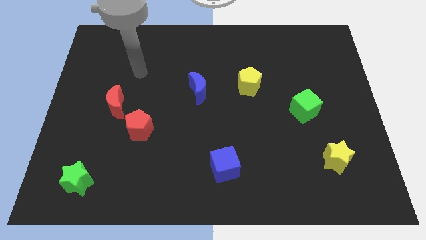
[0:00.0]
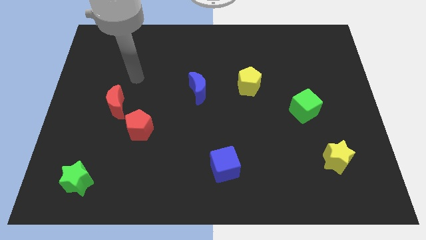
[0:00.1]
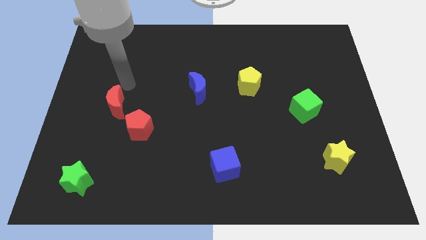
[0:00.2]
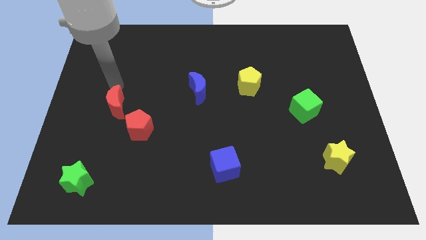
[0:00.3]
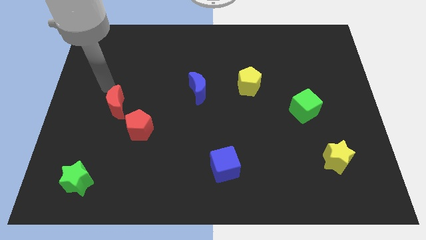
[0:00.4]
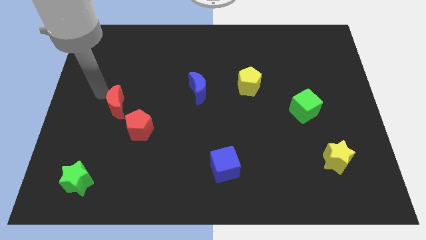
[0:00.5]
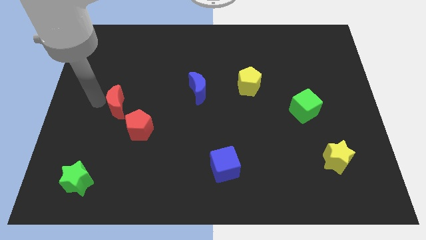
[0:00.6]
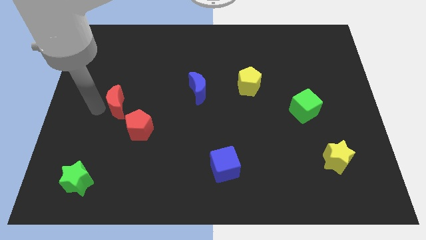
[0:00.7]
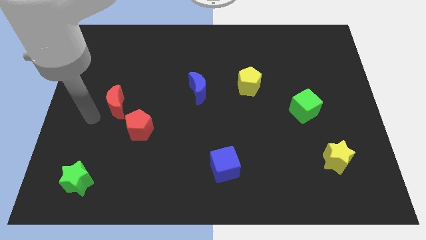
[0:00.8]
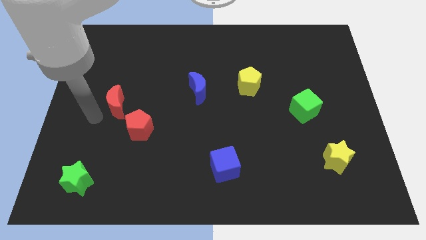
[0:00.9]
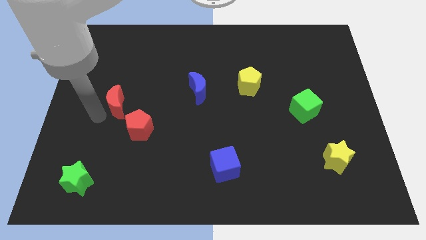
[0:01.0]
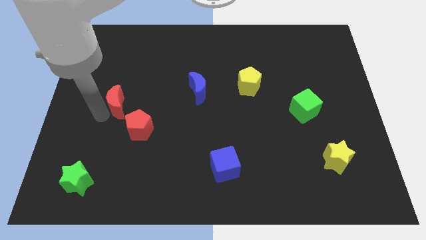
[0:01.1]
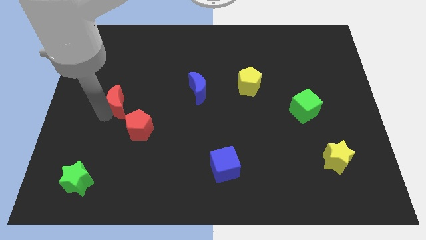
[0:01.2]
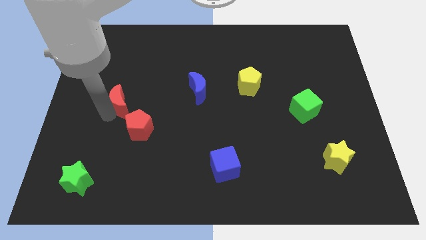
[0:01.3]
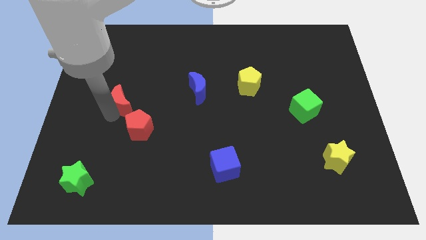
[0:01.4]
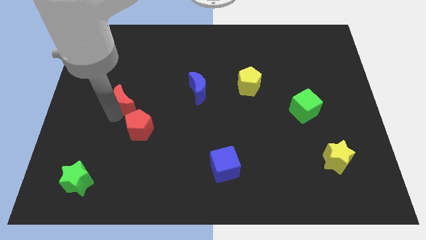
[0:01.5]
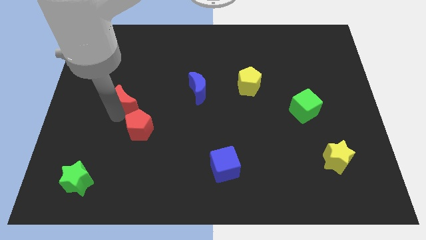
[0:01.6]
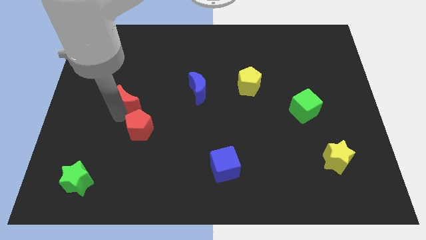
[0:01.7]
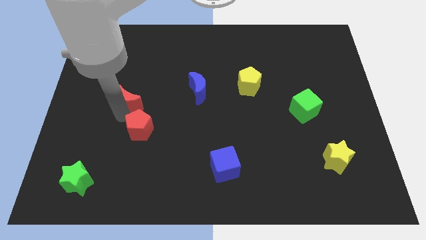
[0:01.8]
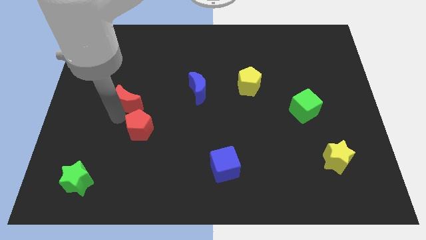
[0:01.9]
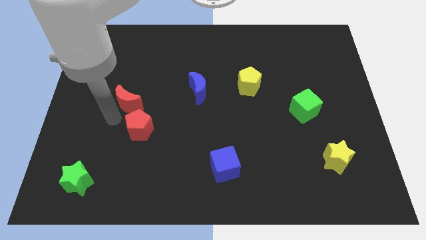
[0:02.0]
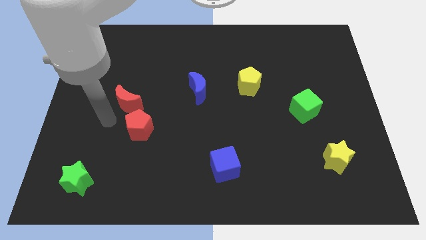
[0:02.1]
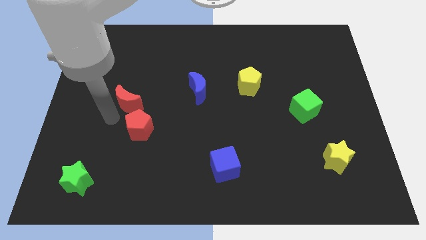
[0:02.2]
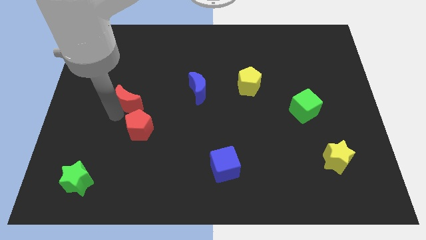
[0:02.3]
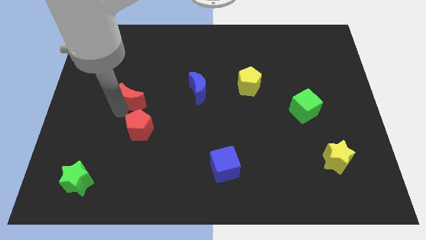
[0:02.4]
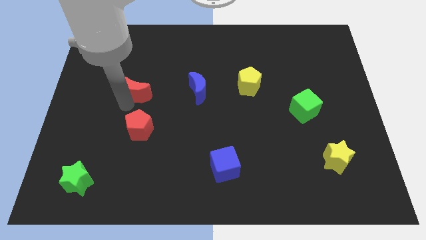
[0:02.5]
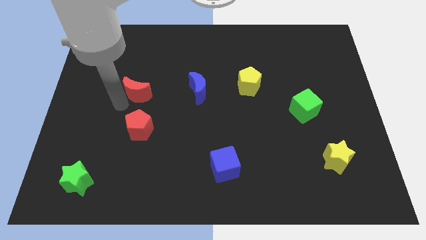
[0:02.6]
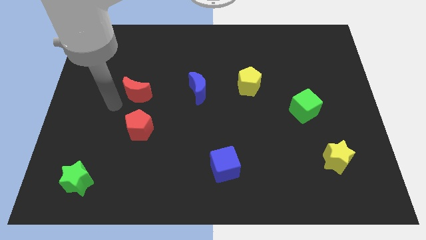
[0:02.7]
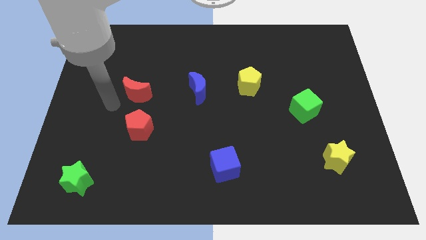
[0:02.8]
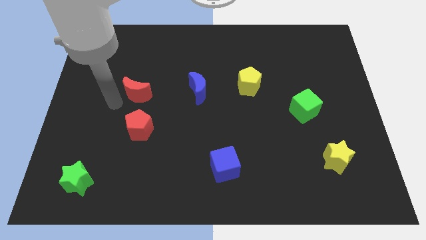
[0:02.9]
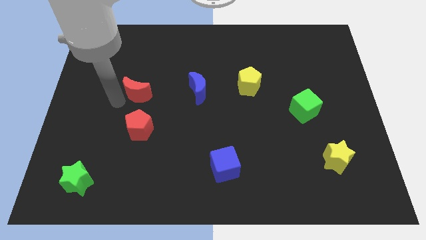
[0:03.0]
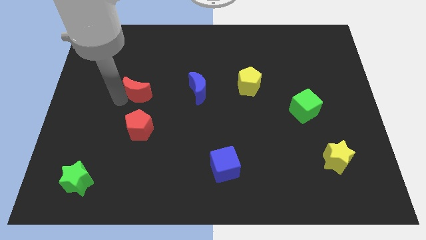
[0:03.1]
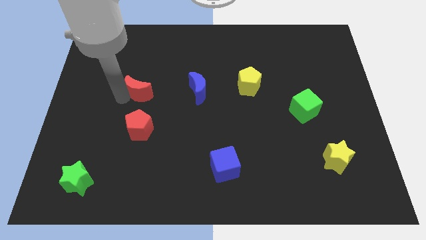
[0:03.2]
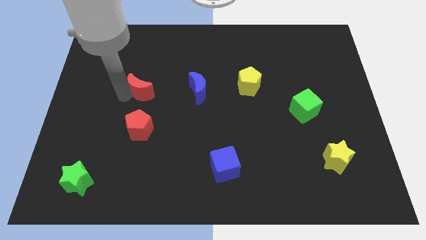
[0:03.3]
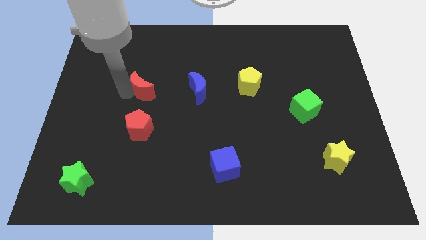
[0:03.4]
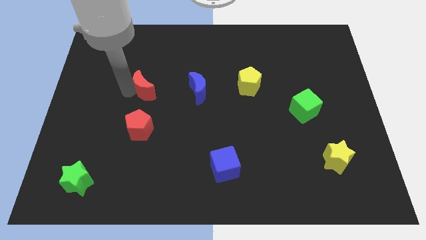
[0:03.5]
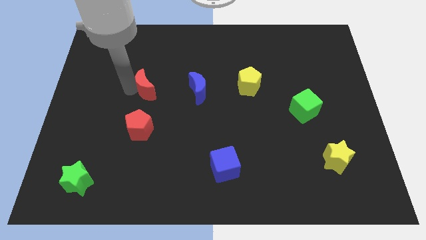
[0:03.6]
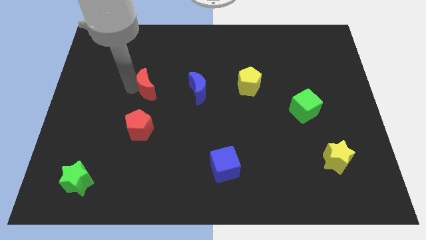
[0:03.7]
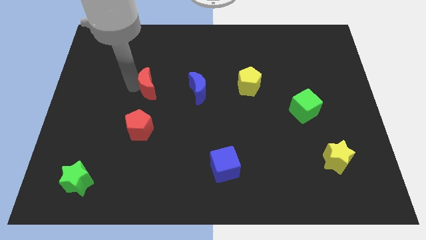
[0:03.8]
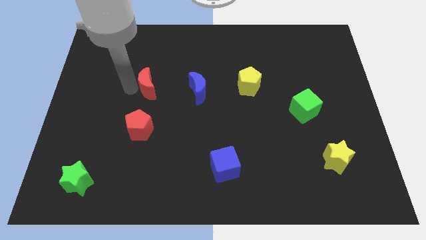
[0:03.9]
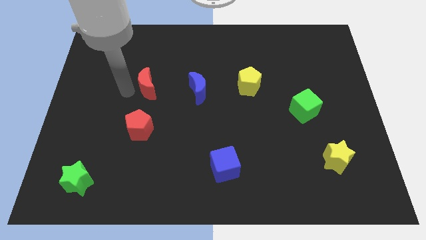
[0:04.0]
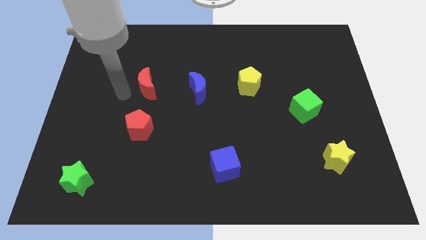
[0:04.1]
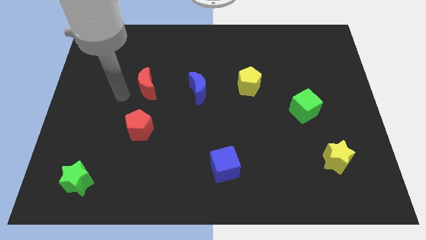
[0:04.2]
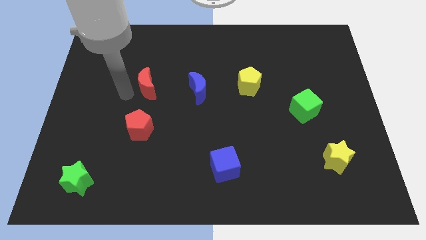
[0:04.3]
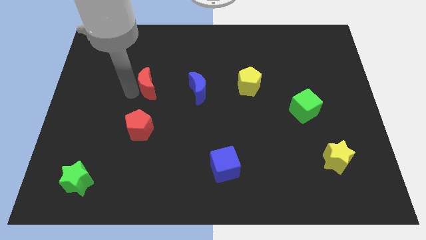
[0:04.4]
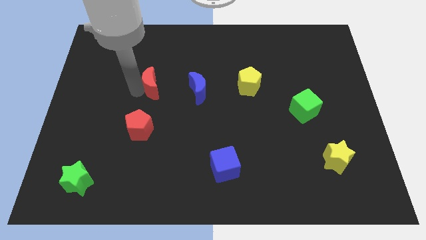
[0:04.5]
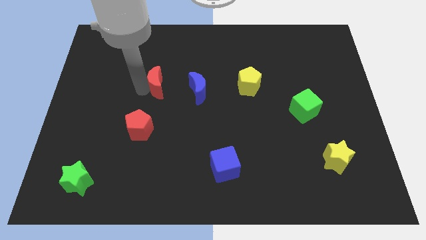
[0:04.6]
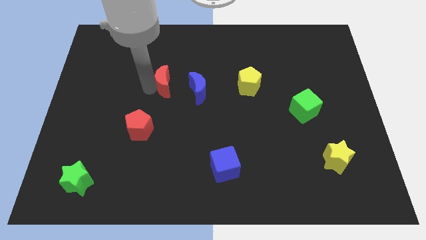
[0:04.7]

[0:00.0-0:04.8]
put the red moon to the top left side of the blue moon

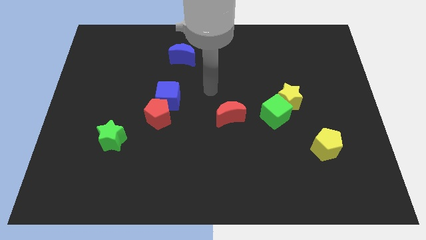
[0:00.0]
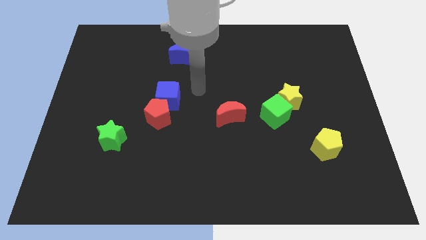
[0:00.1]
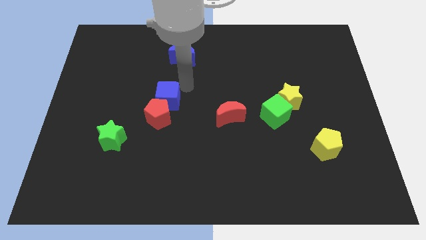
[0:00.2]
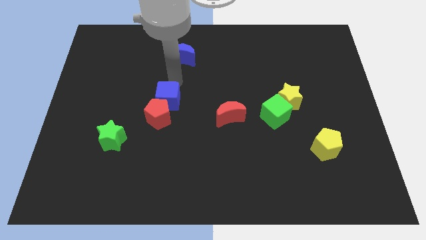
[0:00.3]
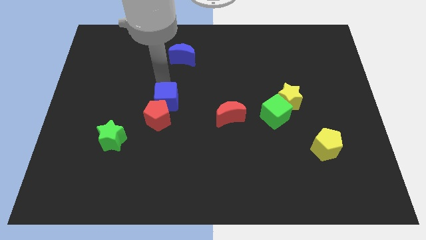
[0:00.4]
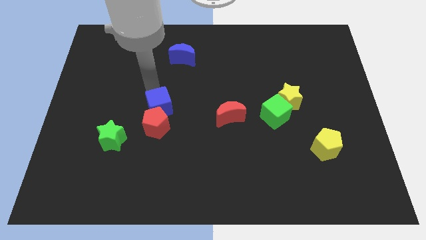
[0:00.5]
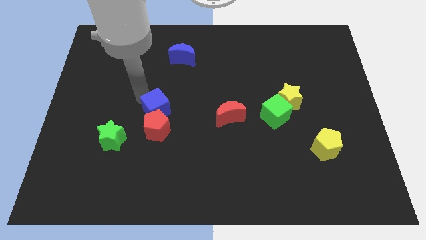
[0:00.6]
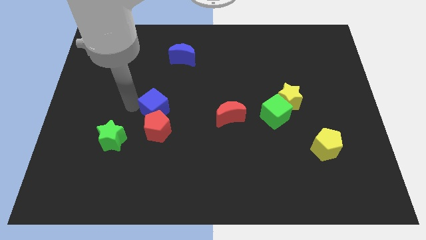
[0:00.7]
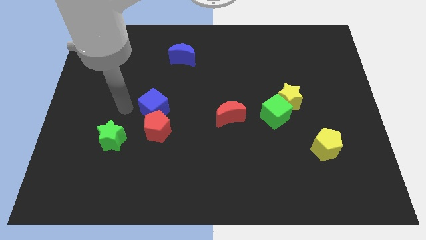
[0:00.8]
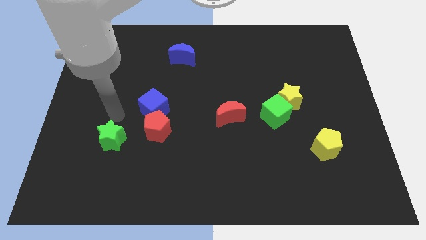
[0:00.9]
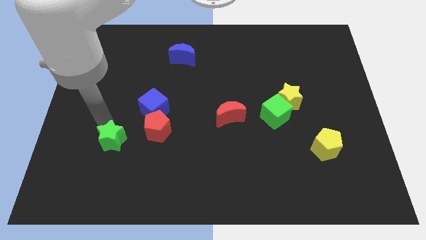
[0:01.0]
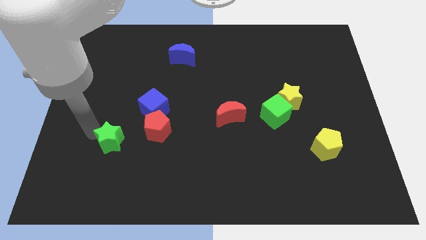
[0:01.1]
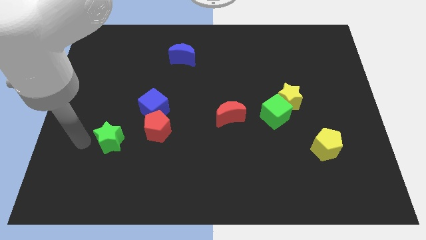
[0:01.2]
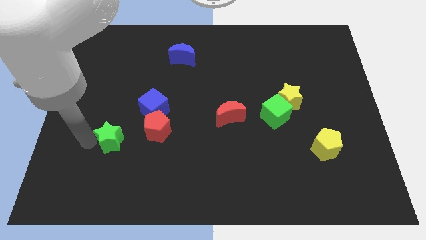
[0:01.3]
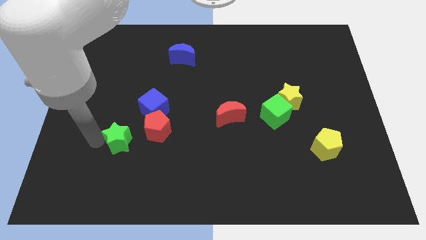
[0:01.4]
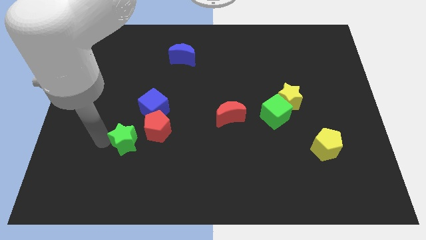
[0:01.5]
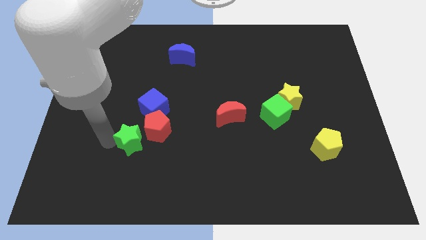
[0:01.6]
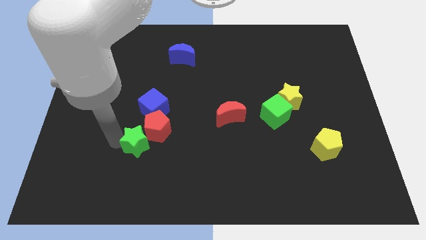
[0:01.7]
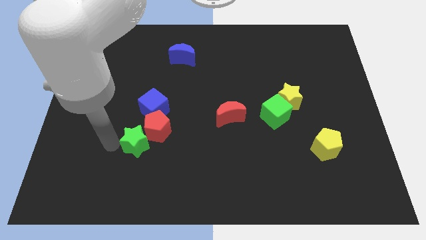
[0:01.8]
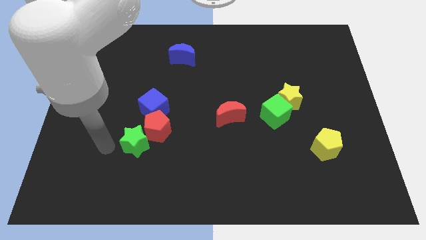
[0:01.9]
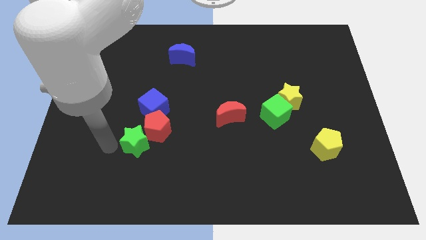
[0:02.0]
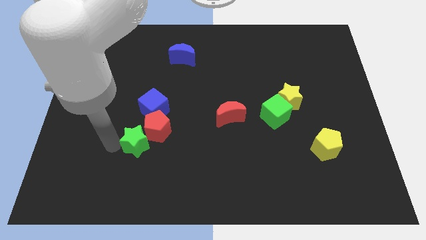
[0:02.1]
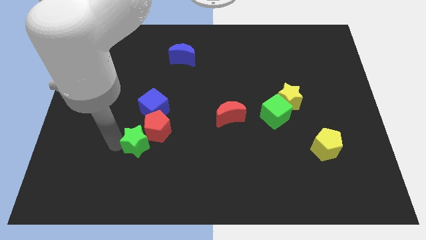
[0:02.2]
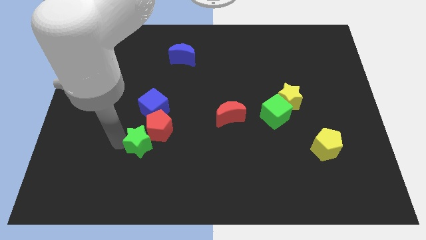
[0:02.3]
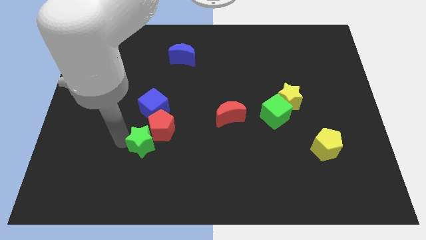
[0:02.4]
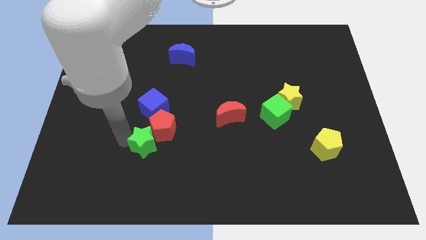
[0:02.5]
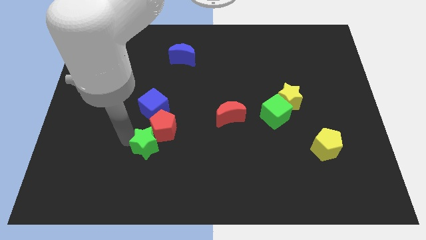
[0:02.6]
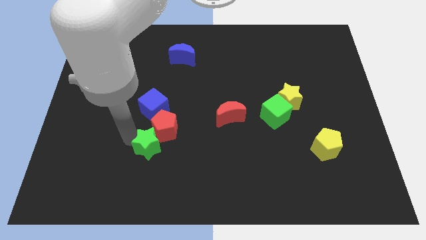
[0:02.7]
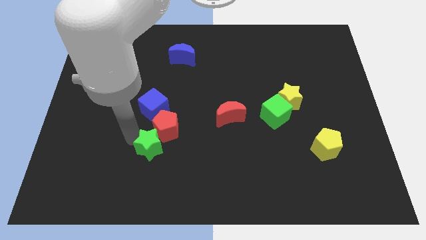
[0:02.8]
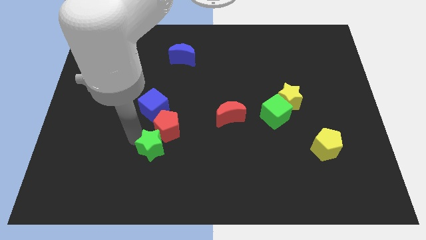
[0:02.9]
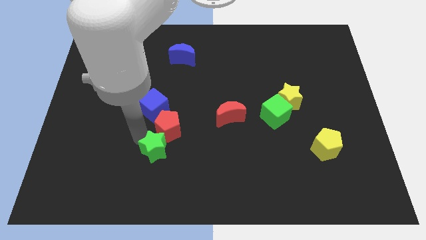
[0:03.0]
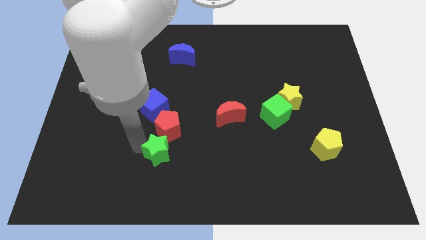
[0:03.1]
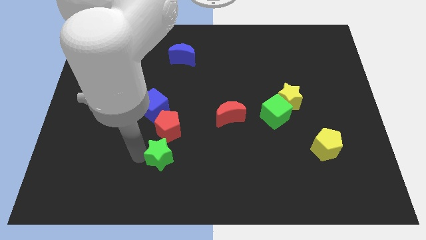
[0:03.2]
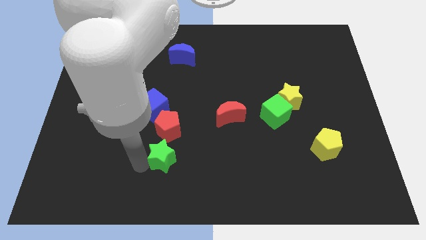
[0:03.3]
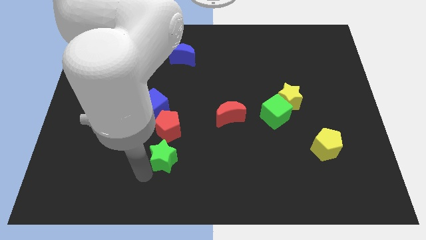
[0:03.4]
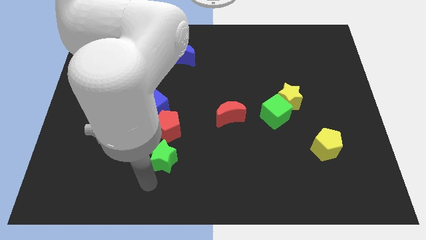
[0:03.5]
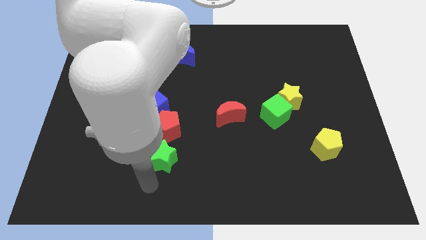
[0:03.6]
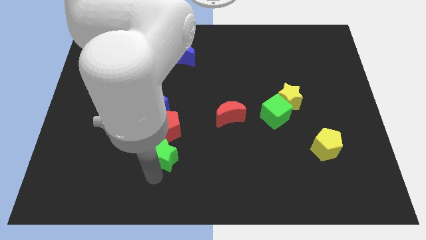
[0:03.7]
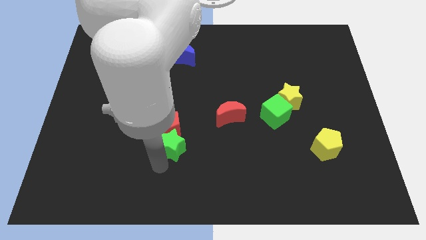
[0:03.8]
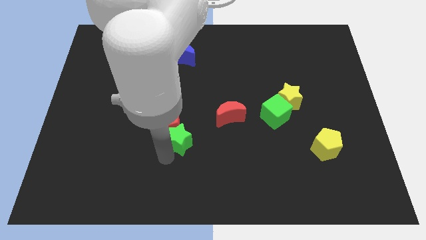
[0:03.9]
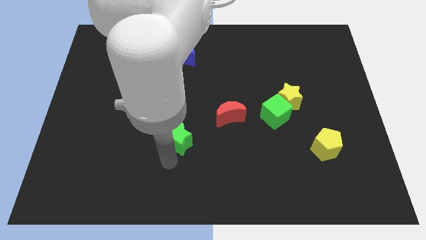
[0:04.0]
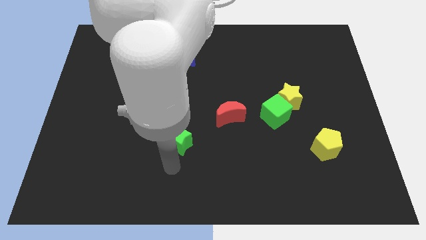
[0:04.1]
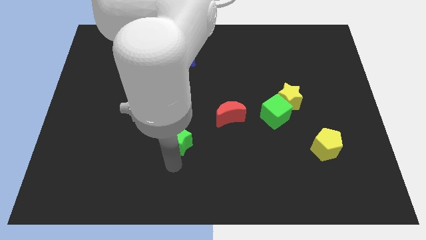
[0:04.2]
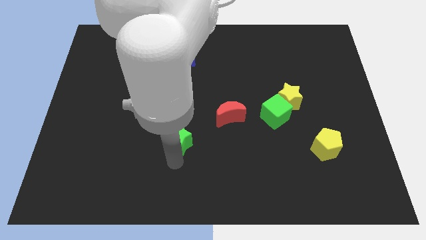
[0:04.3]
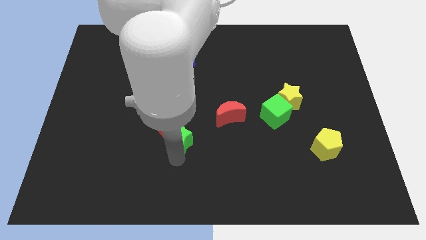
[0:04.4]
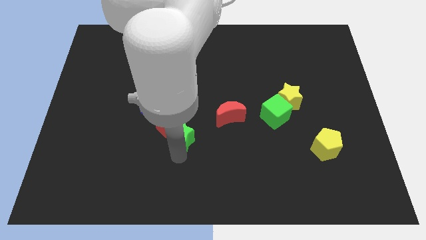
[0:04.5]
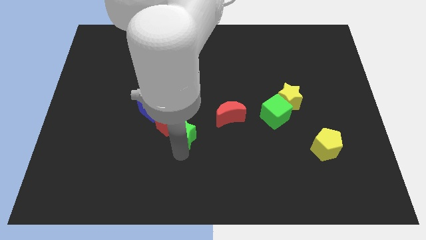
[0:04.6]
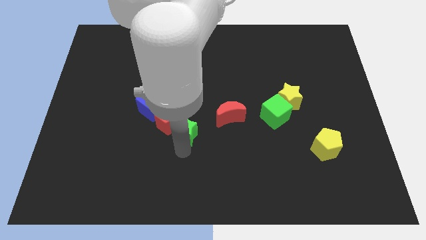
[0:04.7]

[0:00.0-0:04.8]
slide the green star to the left of the red moon
